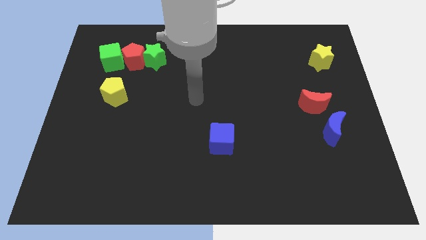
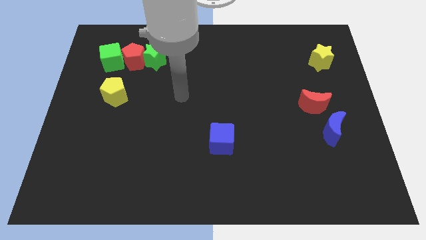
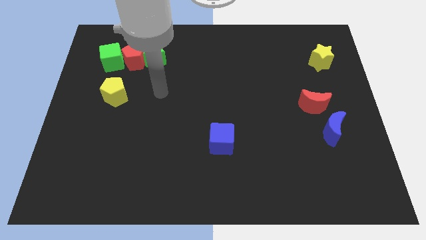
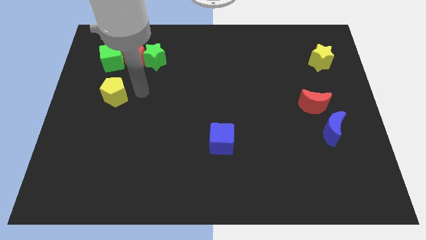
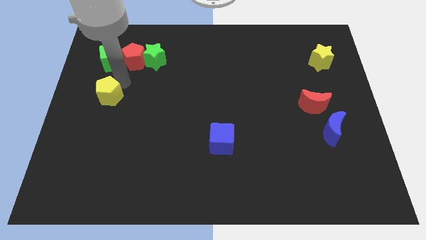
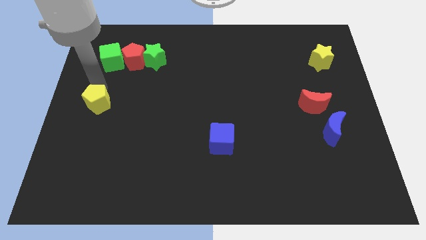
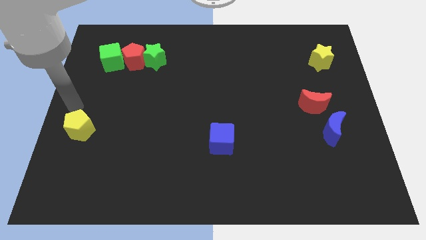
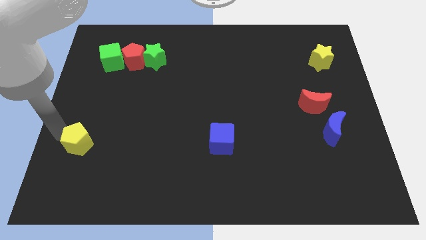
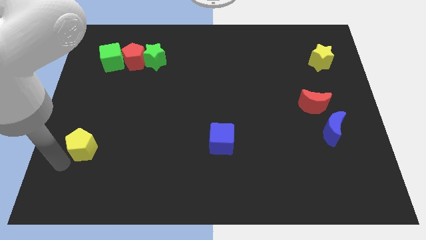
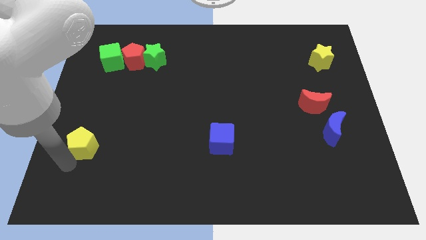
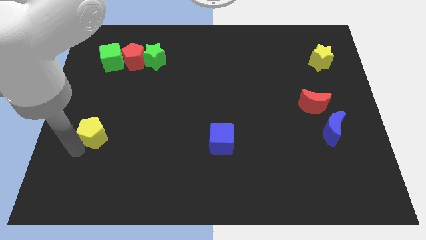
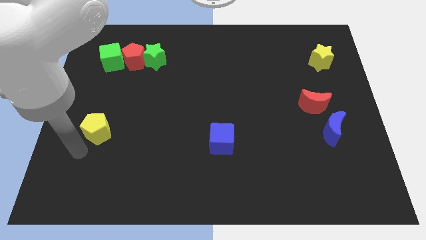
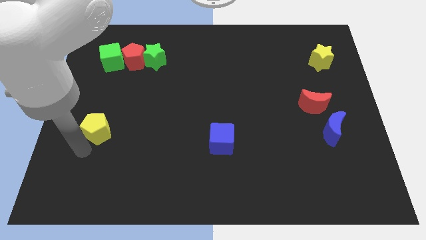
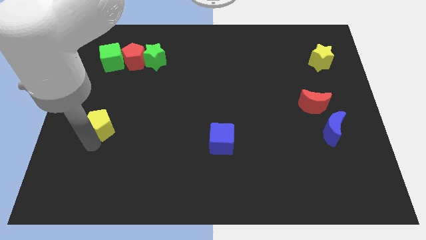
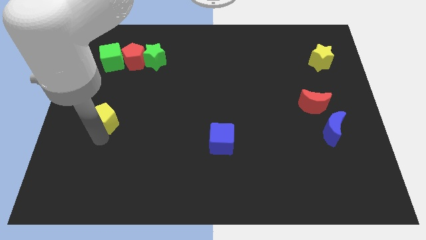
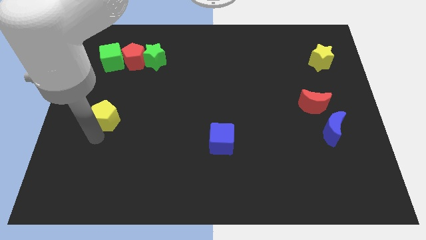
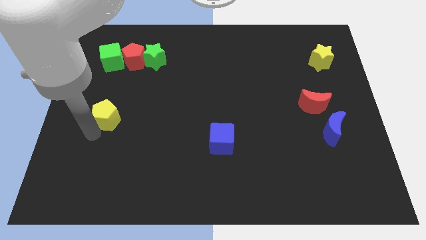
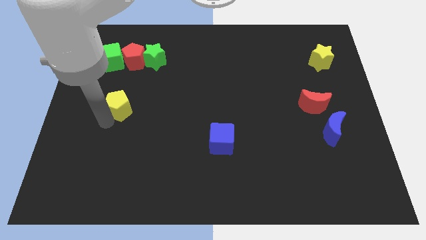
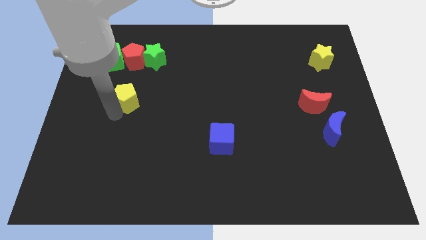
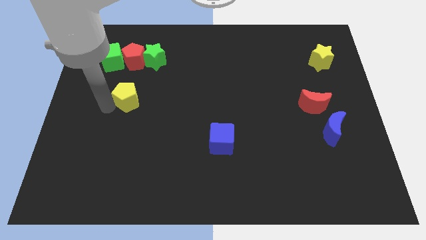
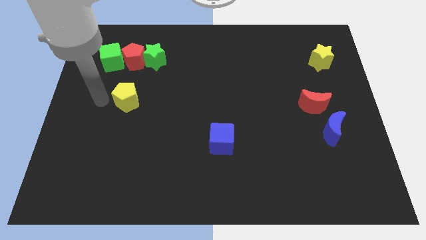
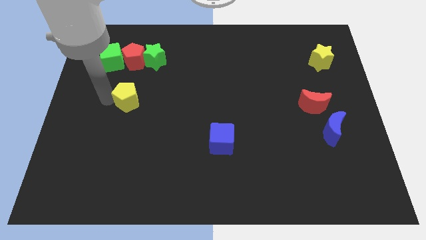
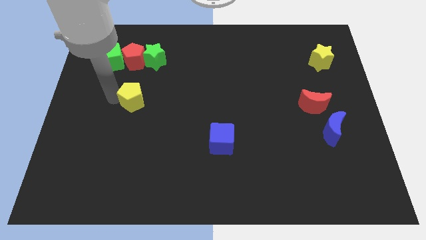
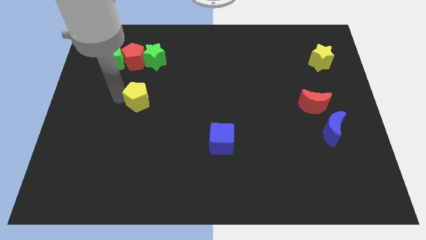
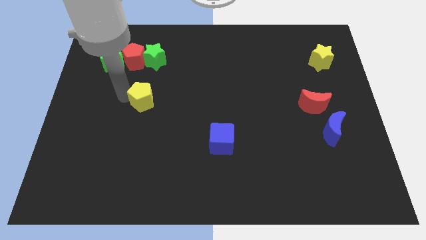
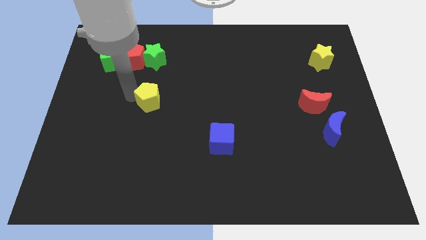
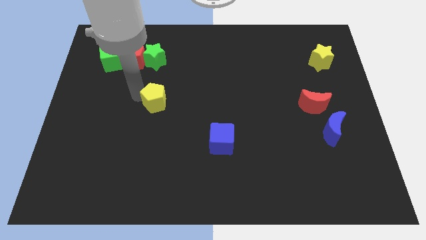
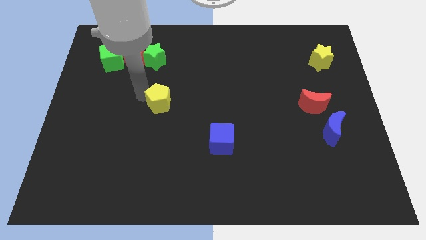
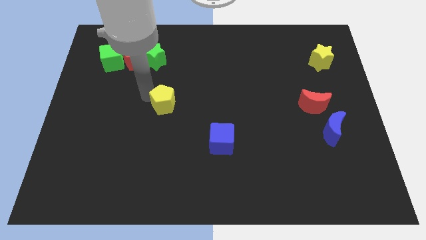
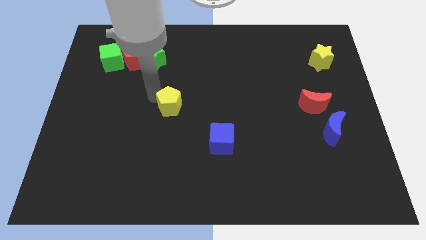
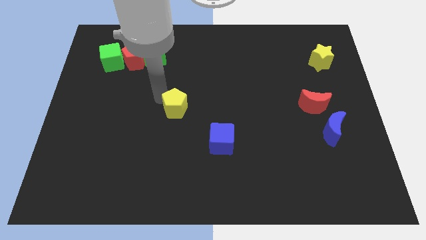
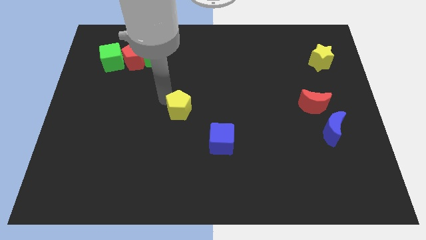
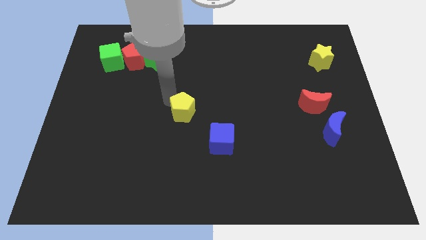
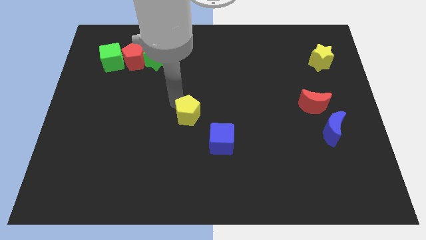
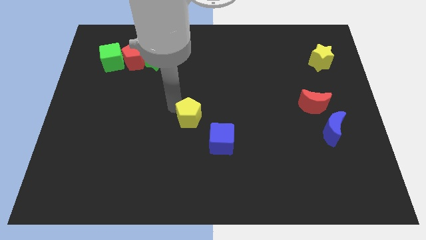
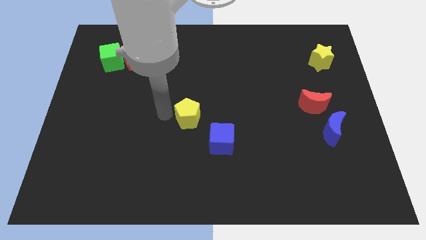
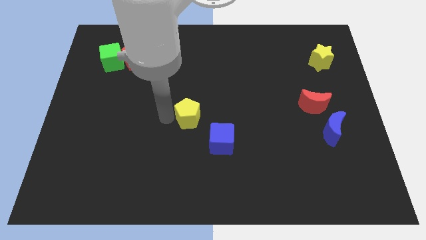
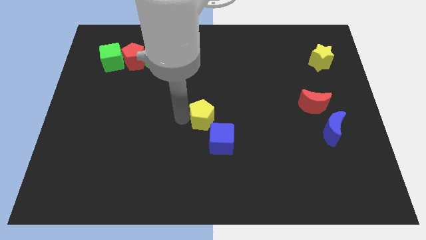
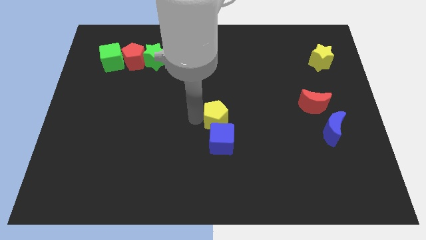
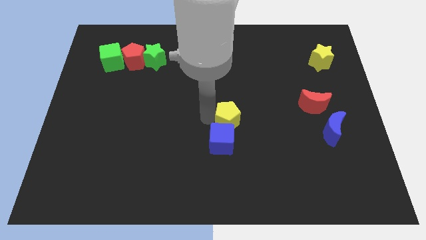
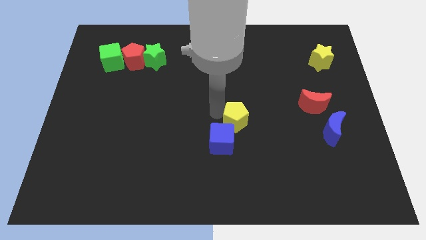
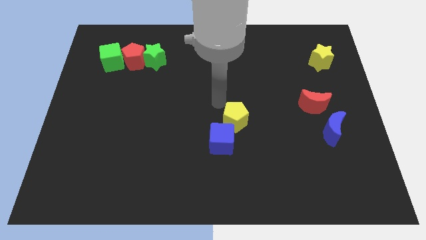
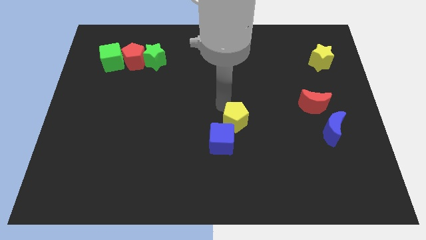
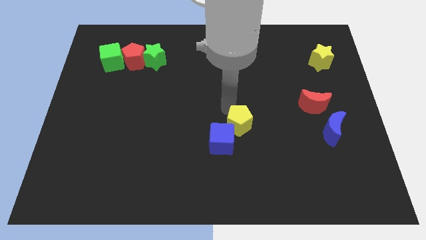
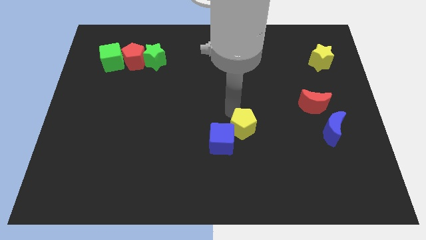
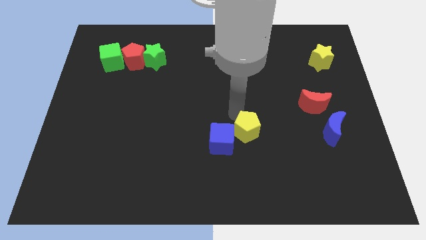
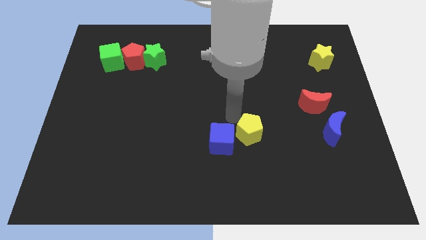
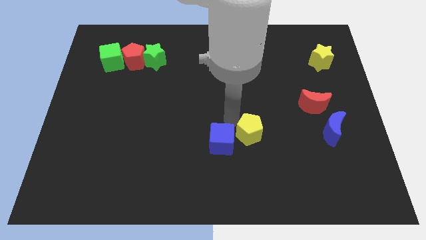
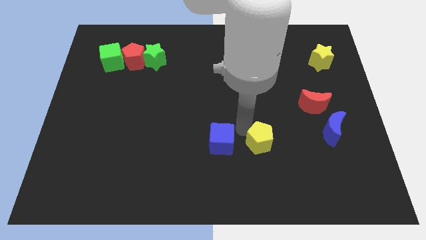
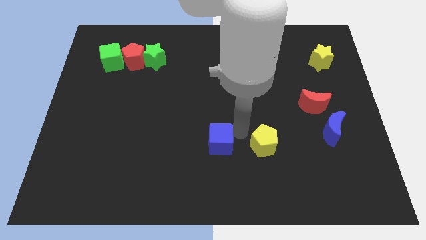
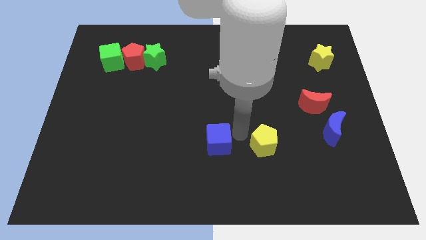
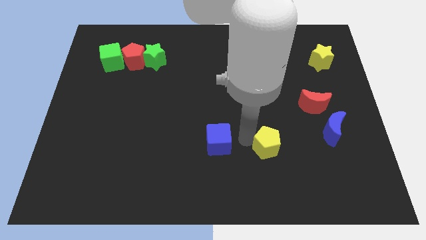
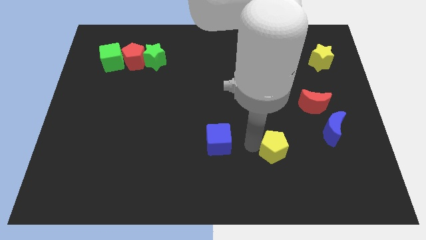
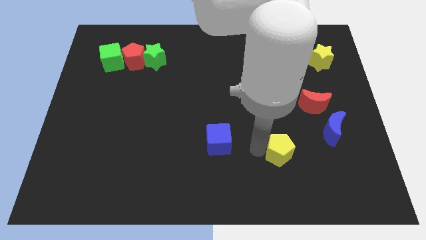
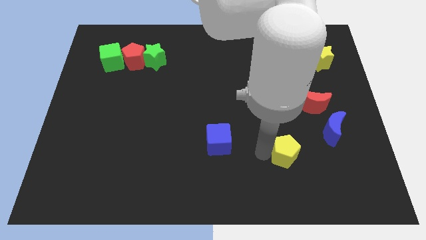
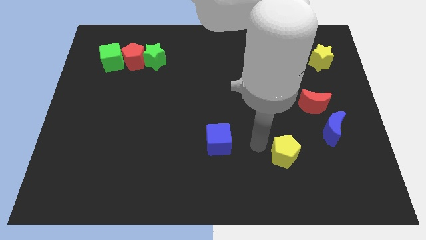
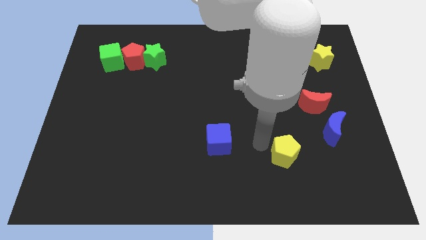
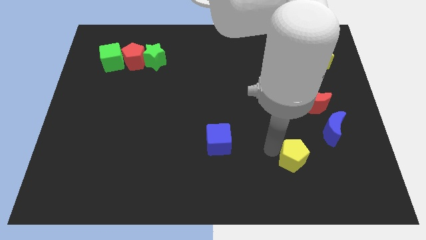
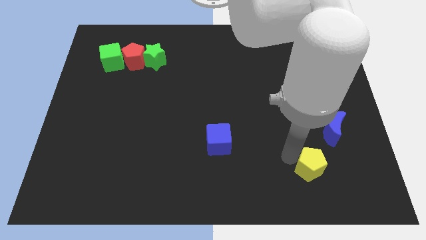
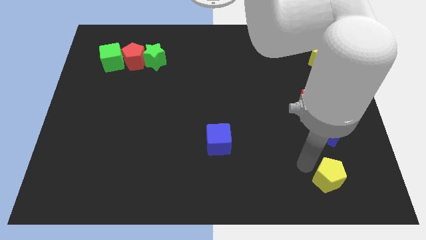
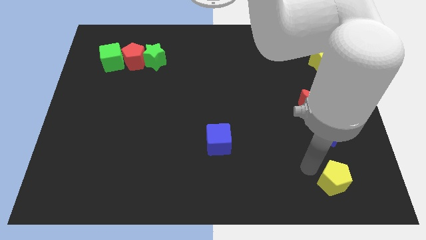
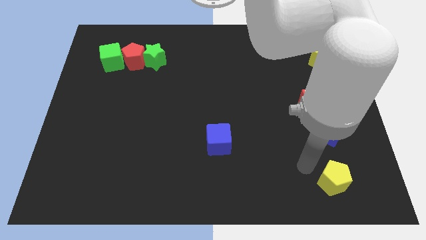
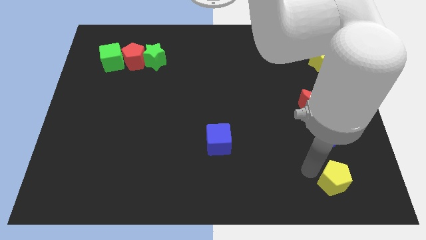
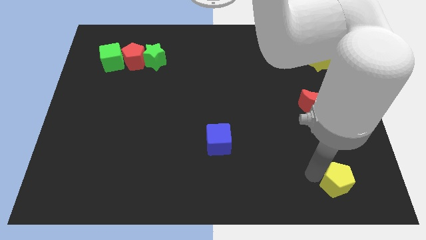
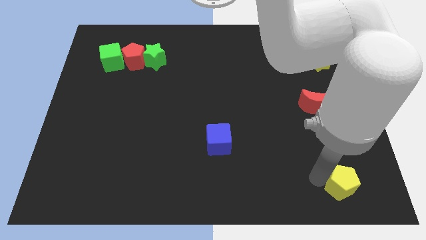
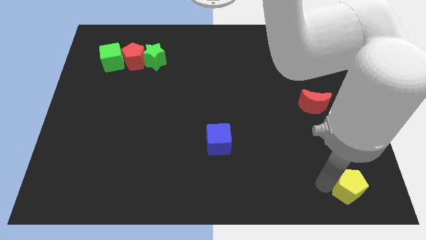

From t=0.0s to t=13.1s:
put the yellow pentagon to the bottom right
